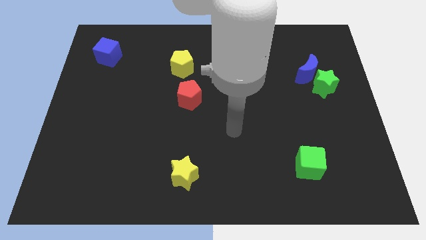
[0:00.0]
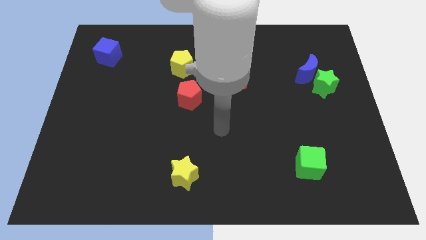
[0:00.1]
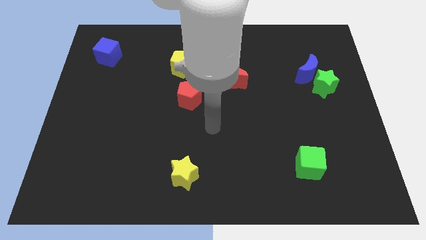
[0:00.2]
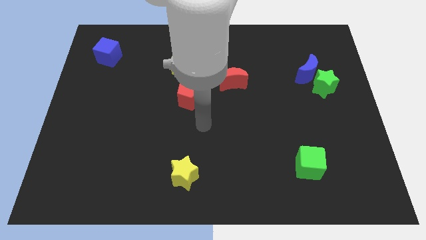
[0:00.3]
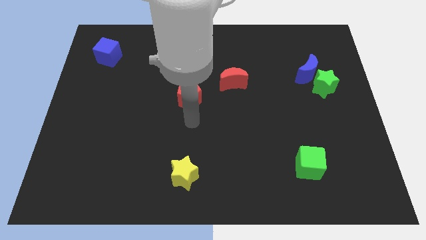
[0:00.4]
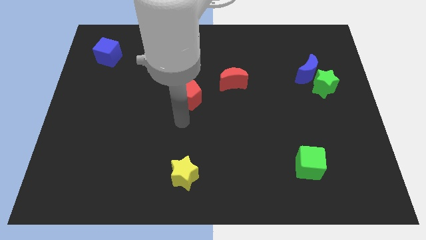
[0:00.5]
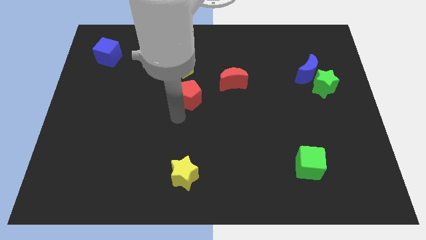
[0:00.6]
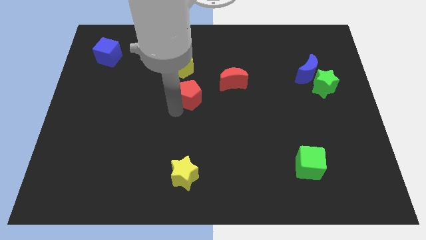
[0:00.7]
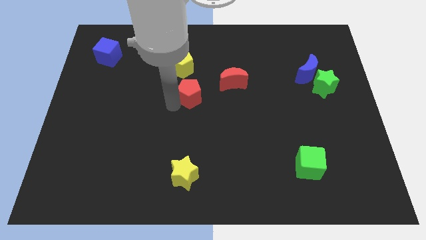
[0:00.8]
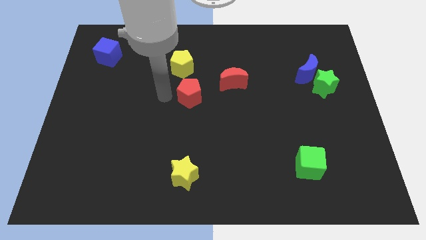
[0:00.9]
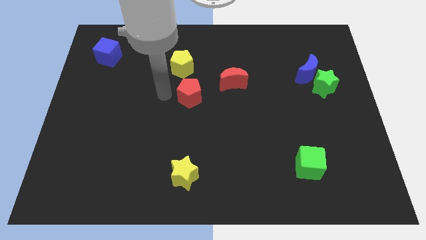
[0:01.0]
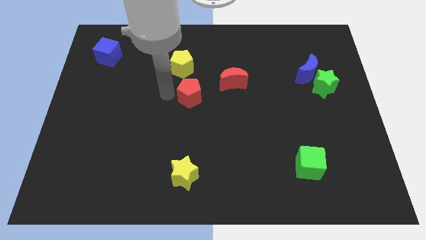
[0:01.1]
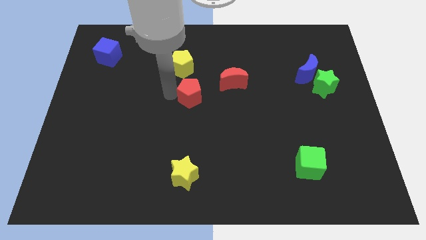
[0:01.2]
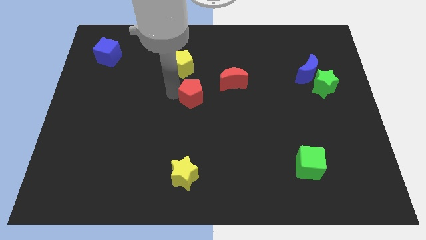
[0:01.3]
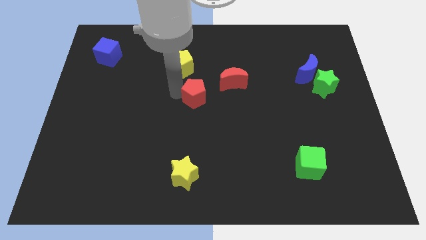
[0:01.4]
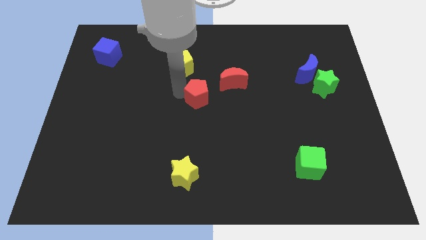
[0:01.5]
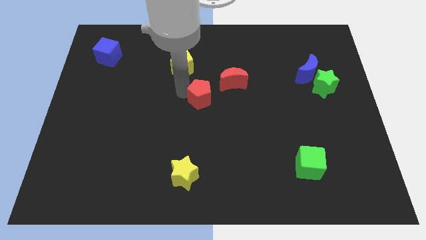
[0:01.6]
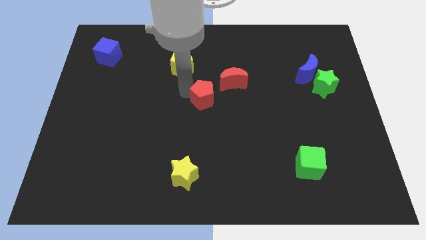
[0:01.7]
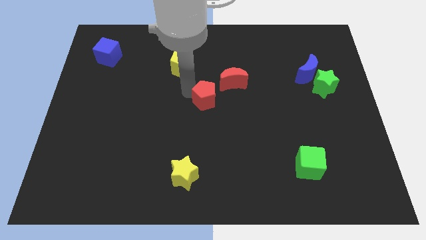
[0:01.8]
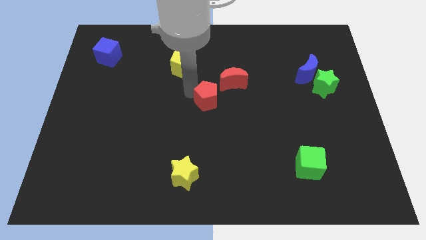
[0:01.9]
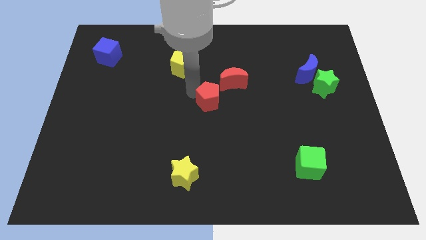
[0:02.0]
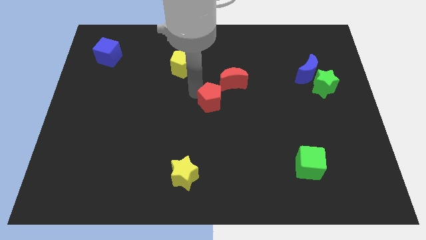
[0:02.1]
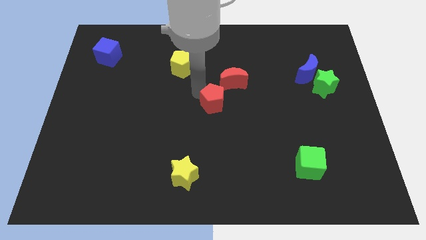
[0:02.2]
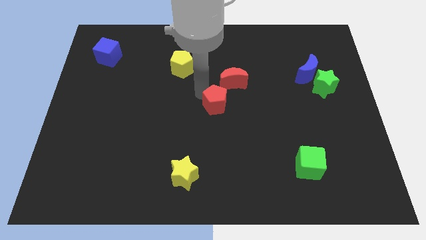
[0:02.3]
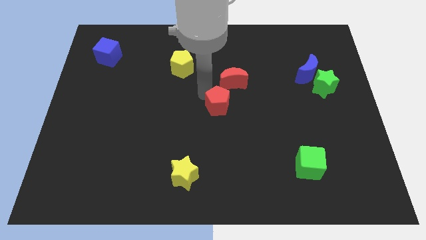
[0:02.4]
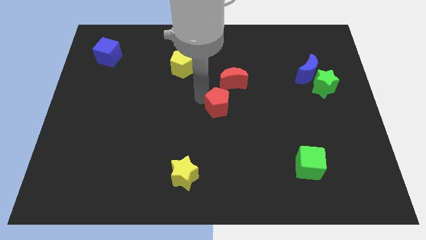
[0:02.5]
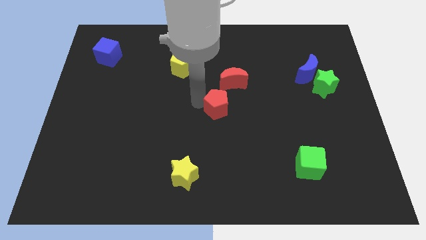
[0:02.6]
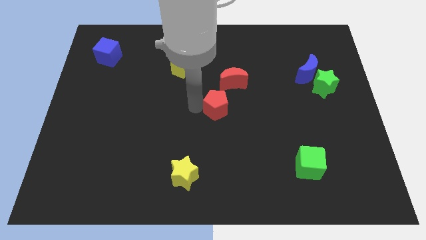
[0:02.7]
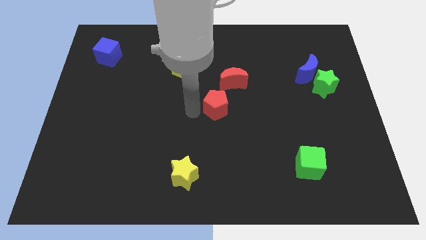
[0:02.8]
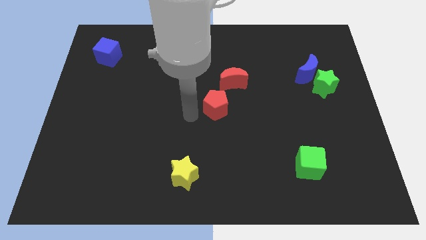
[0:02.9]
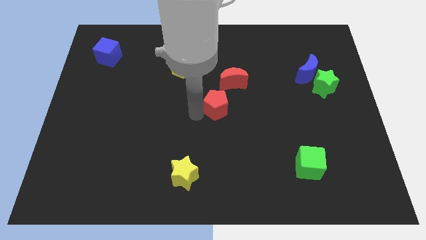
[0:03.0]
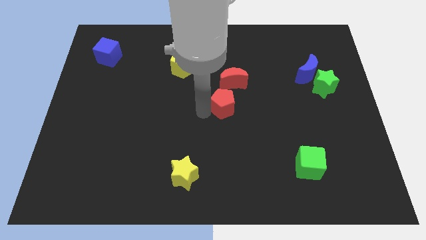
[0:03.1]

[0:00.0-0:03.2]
slide the red pentagon to the right a little bit

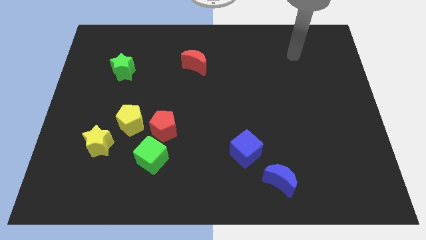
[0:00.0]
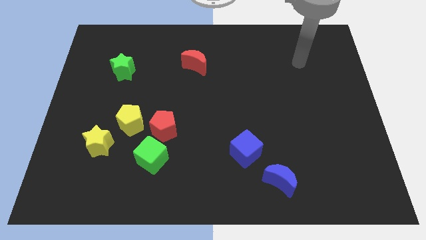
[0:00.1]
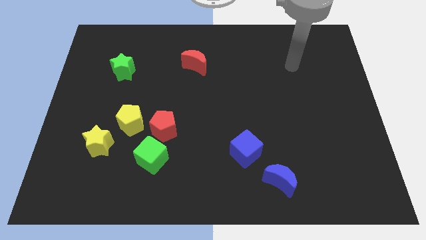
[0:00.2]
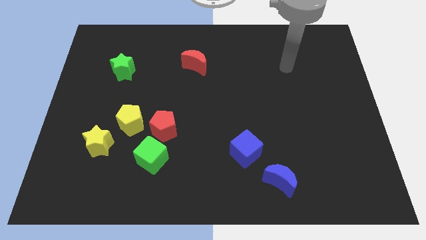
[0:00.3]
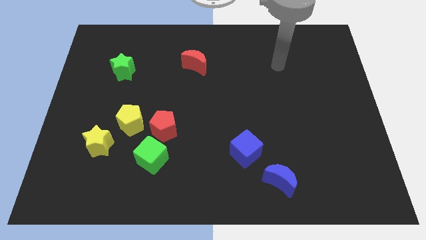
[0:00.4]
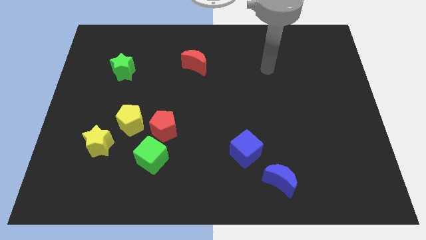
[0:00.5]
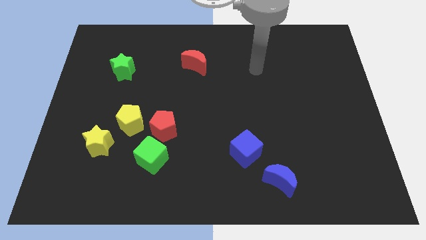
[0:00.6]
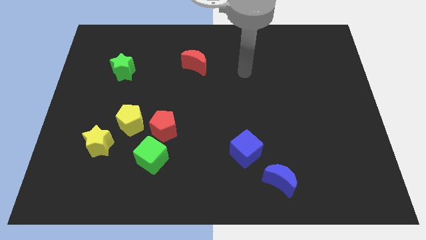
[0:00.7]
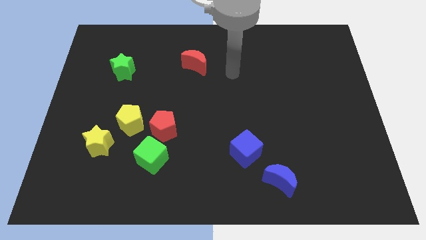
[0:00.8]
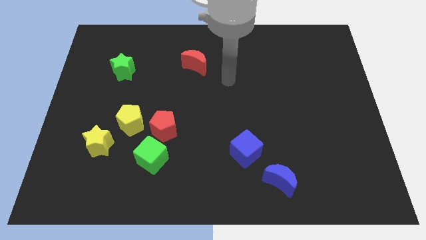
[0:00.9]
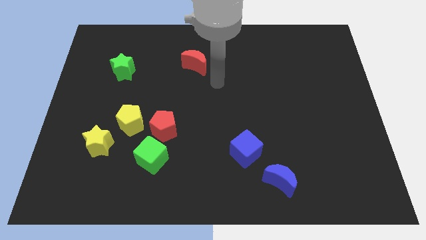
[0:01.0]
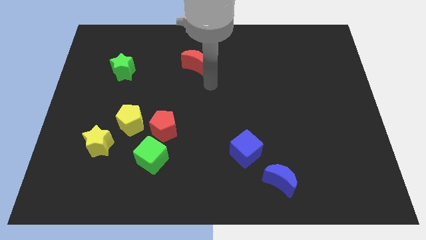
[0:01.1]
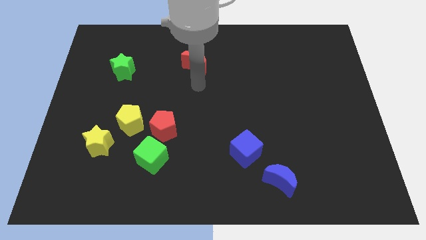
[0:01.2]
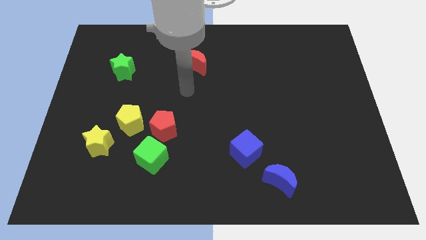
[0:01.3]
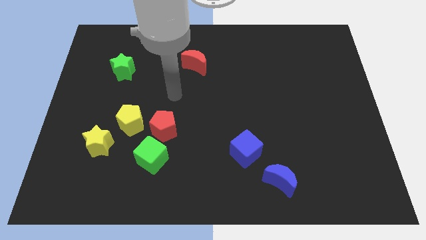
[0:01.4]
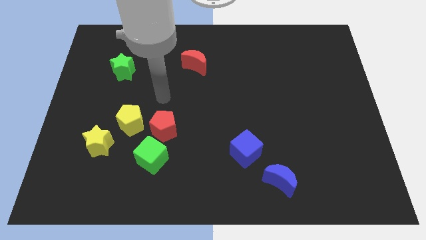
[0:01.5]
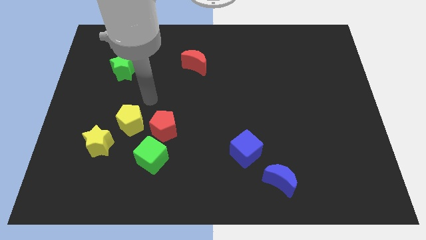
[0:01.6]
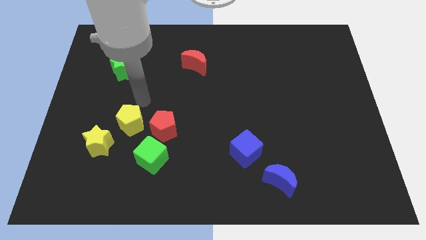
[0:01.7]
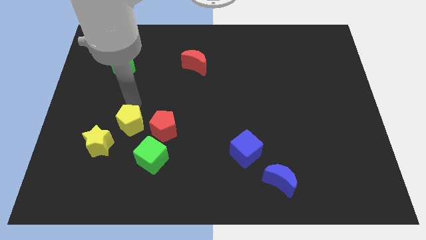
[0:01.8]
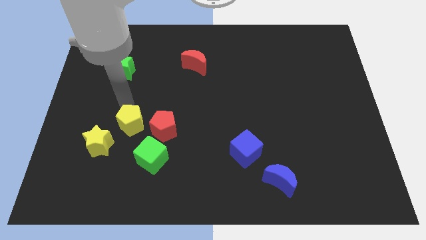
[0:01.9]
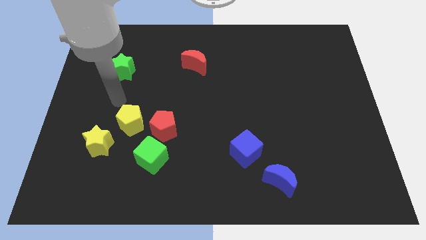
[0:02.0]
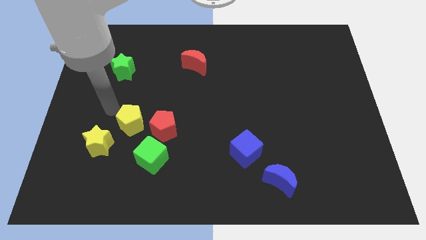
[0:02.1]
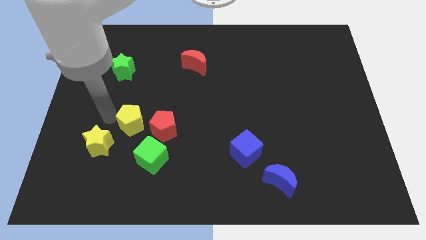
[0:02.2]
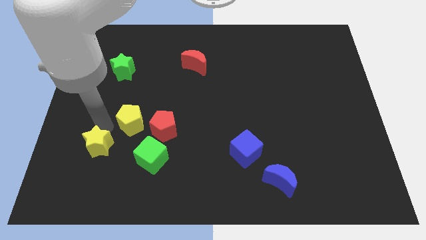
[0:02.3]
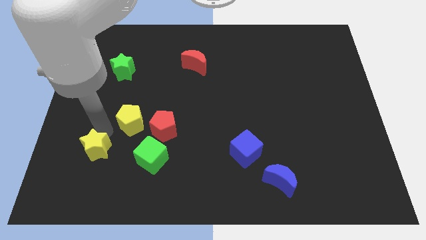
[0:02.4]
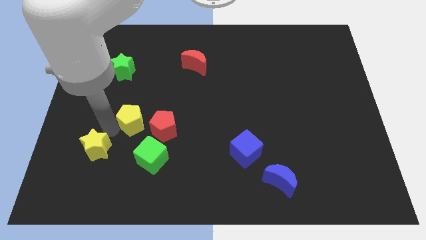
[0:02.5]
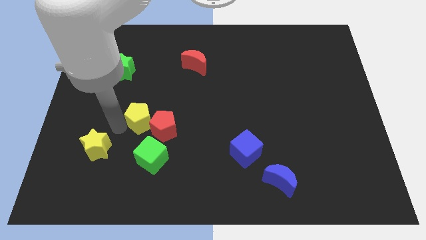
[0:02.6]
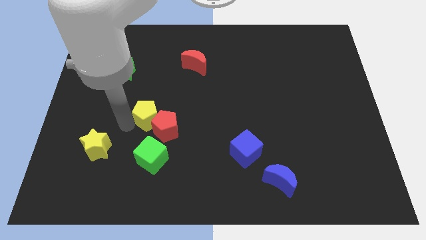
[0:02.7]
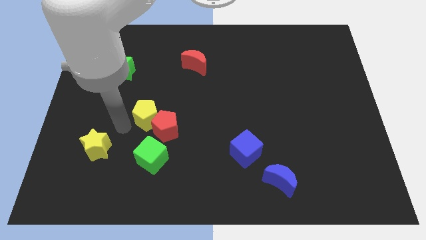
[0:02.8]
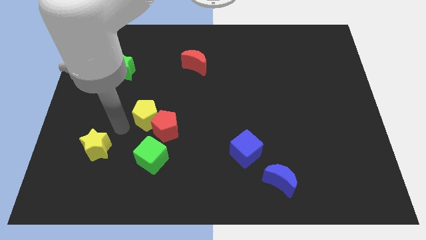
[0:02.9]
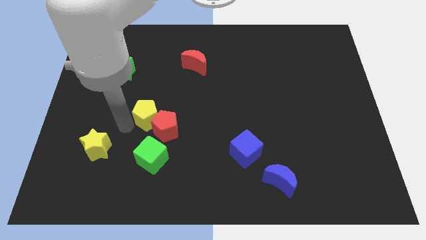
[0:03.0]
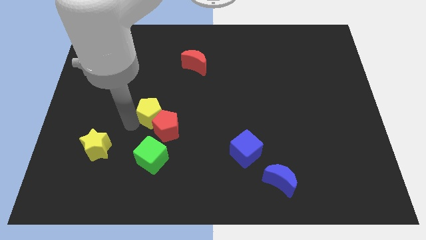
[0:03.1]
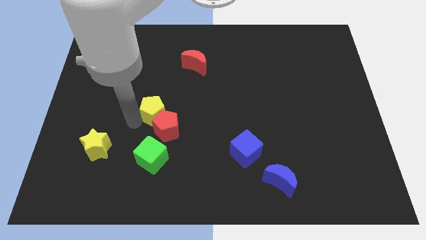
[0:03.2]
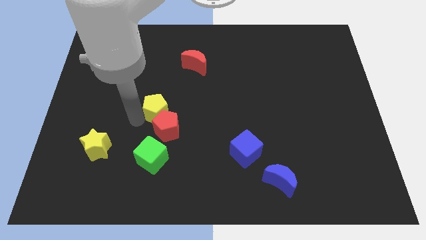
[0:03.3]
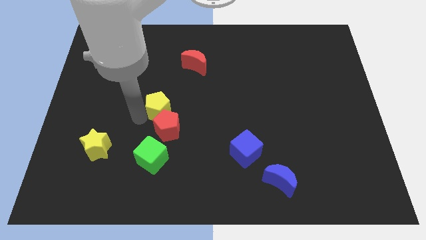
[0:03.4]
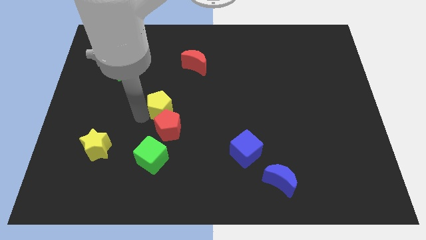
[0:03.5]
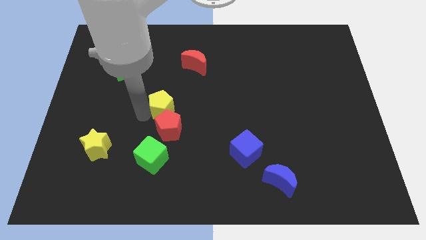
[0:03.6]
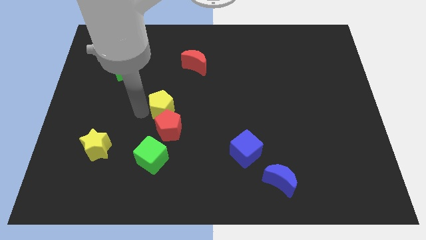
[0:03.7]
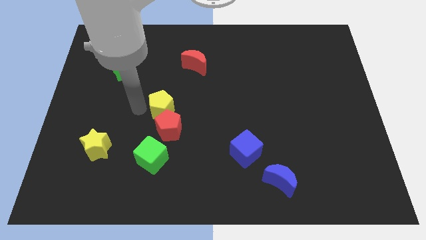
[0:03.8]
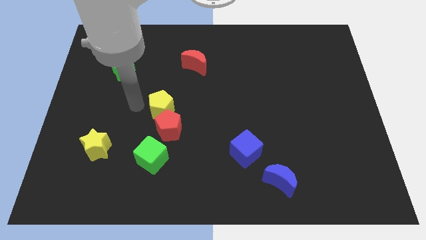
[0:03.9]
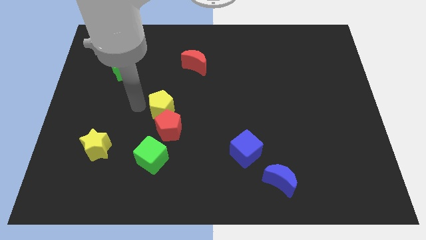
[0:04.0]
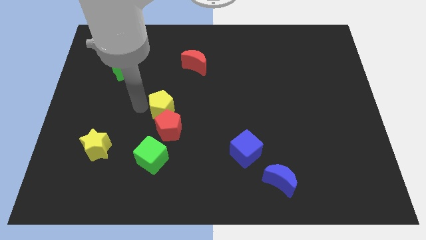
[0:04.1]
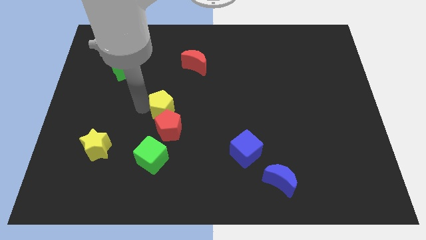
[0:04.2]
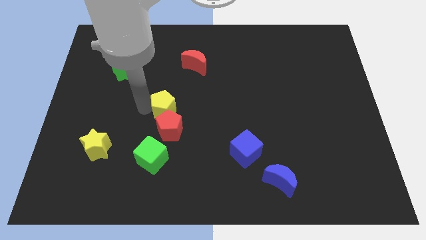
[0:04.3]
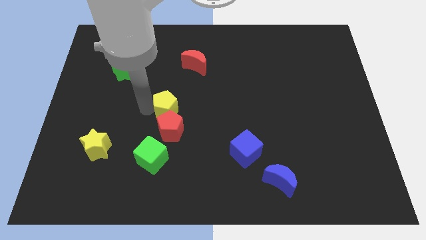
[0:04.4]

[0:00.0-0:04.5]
move the yellow pentagon slightly right
